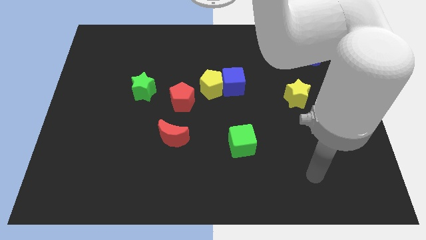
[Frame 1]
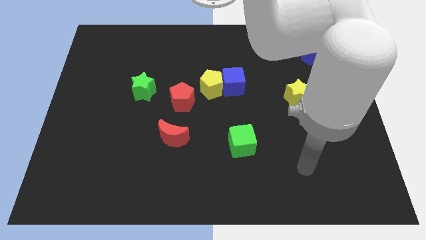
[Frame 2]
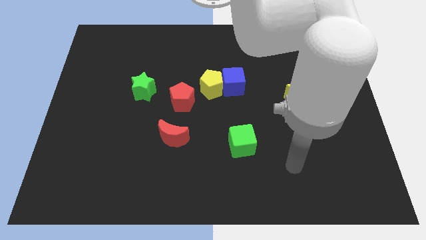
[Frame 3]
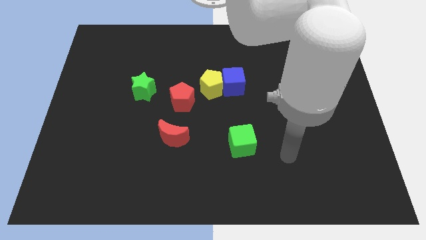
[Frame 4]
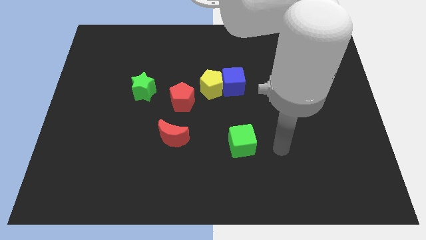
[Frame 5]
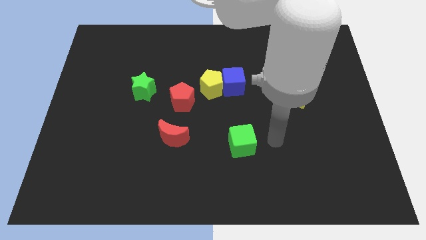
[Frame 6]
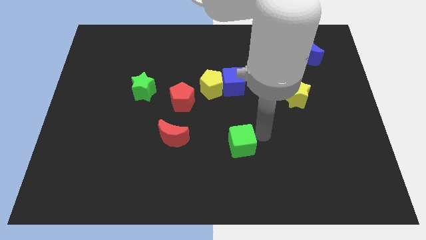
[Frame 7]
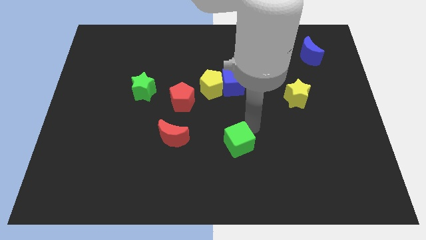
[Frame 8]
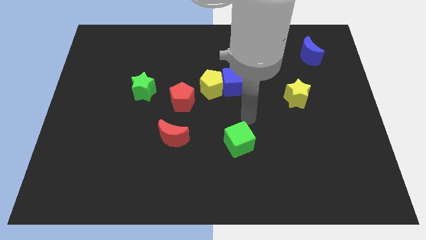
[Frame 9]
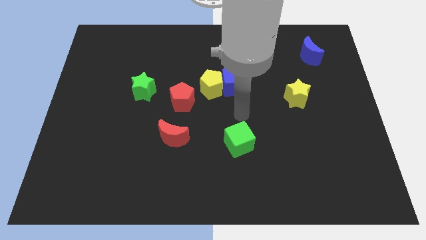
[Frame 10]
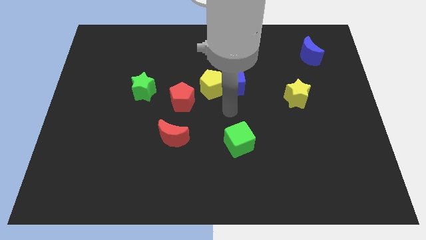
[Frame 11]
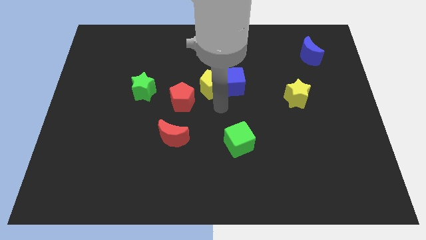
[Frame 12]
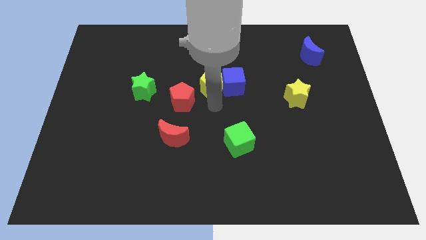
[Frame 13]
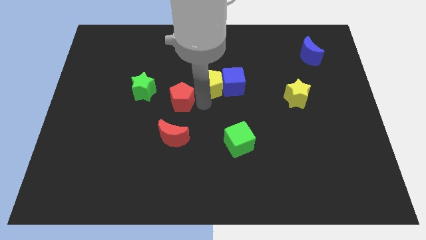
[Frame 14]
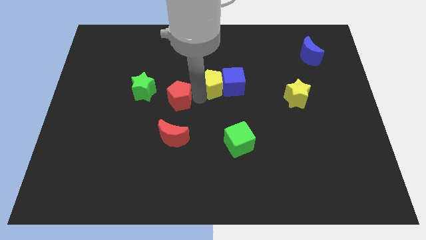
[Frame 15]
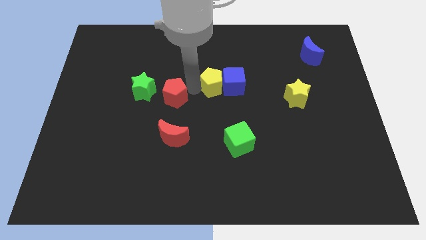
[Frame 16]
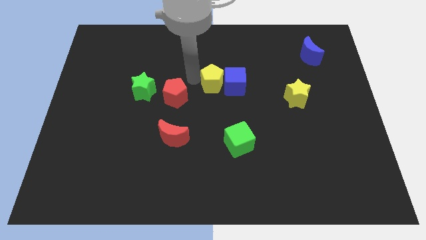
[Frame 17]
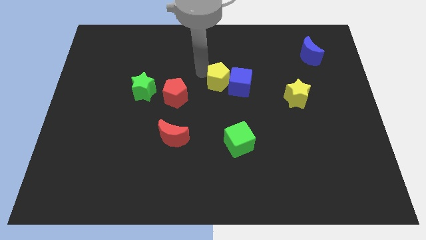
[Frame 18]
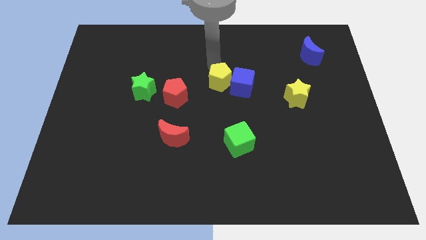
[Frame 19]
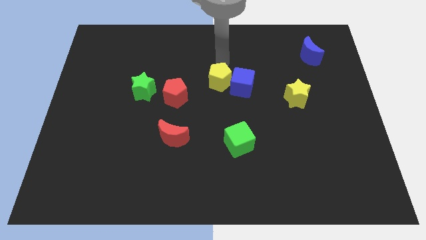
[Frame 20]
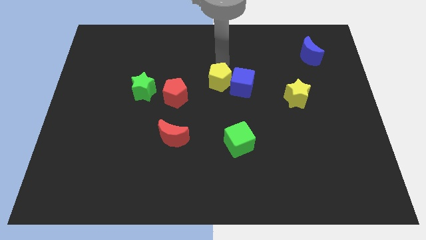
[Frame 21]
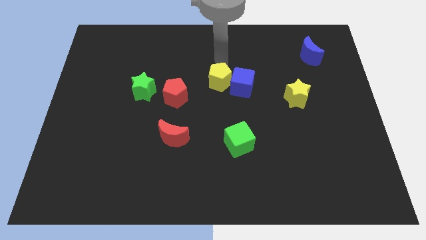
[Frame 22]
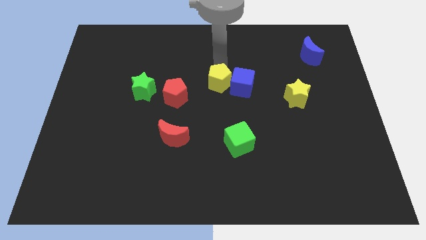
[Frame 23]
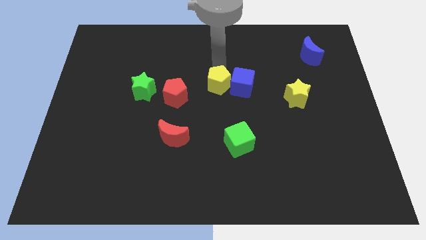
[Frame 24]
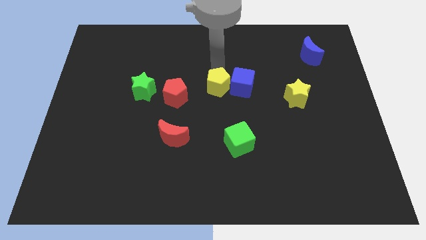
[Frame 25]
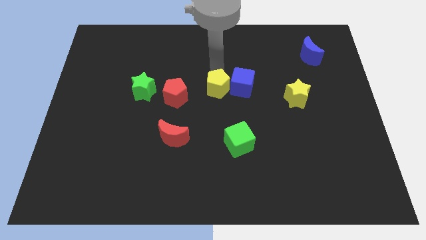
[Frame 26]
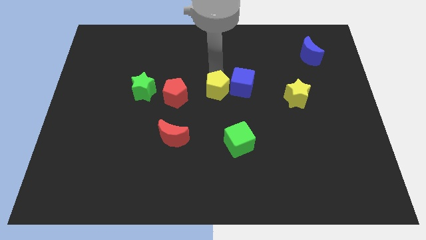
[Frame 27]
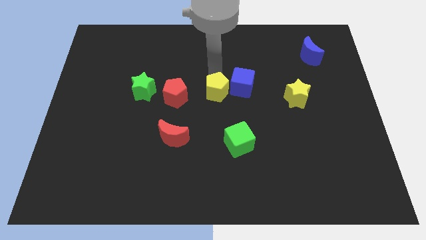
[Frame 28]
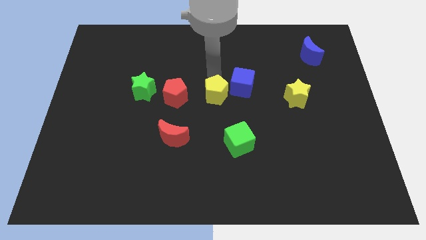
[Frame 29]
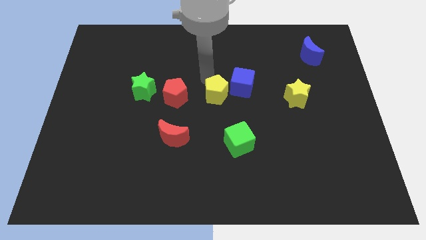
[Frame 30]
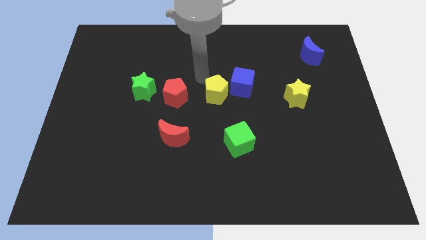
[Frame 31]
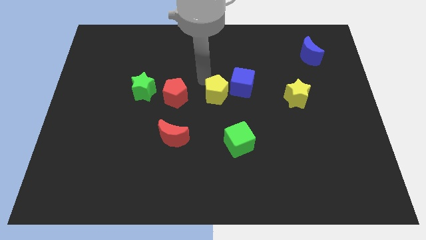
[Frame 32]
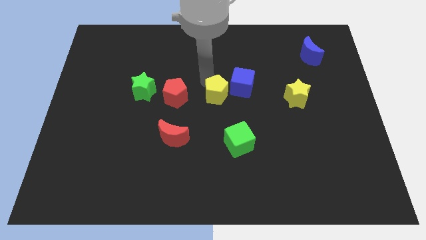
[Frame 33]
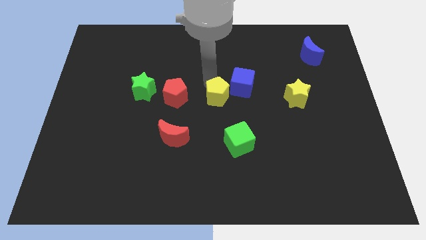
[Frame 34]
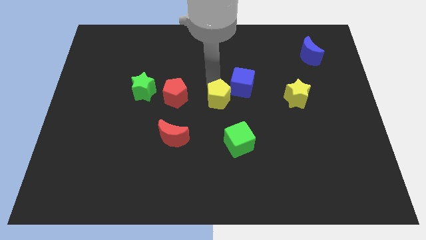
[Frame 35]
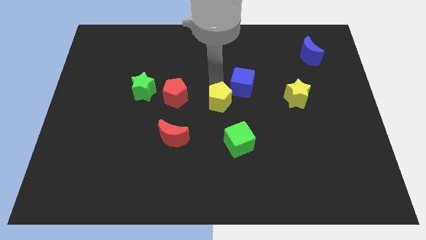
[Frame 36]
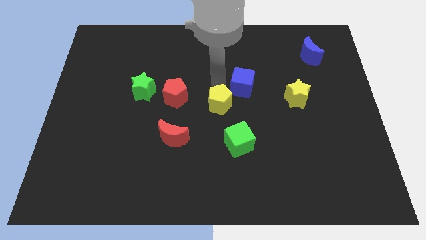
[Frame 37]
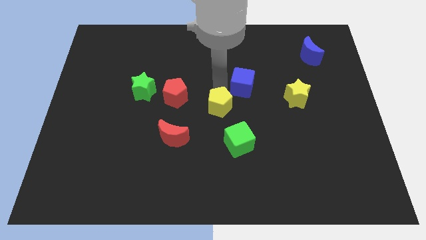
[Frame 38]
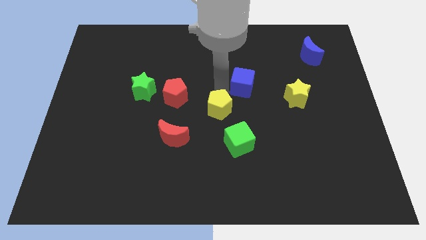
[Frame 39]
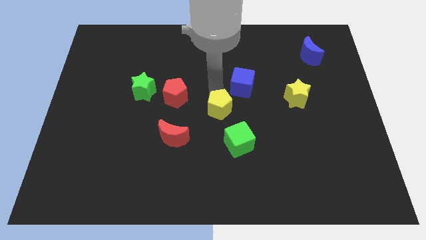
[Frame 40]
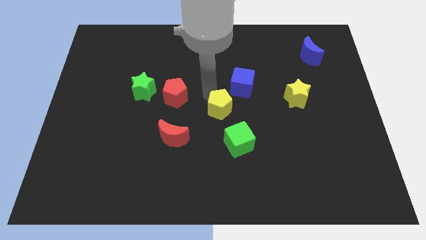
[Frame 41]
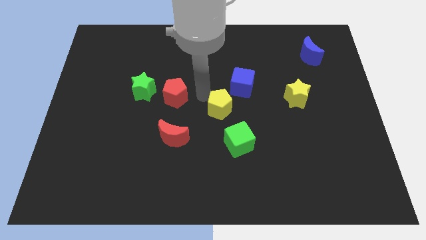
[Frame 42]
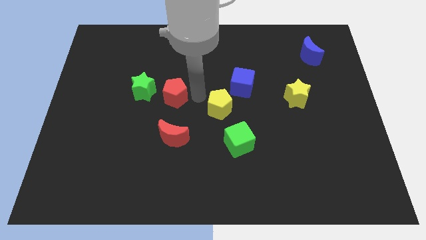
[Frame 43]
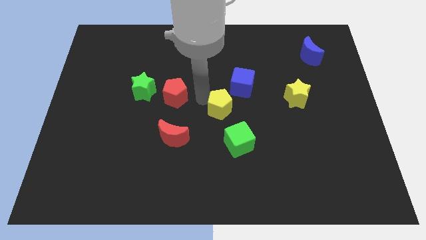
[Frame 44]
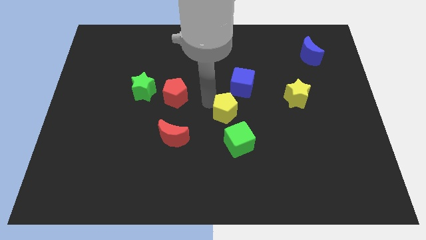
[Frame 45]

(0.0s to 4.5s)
slide the yellow pentagon diagonally downwards and to the right a little bit

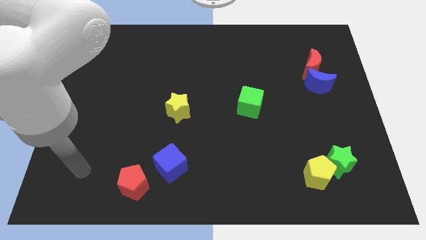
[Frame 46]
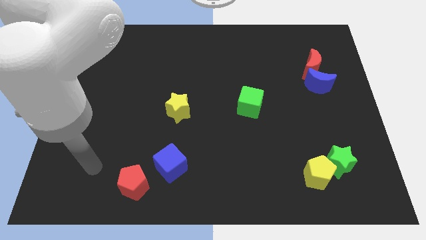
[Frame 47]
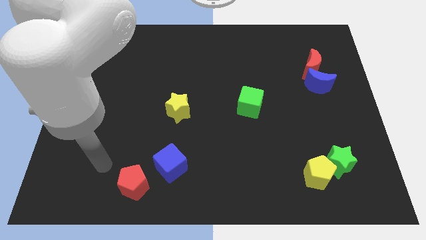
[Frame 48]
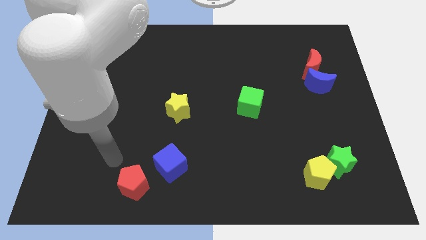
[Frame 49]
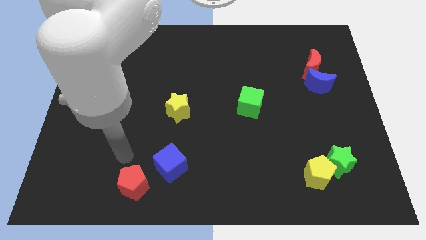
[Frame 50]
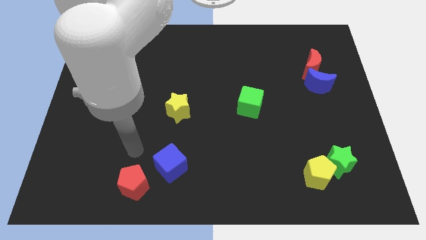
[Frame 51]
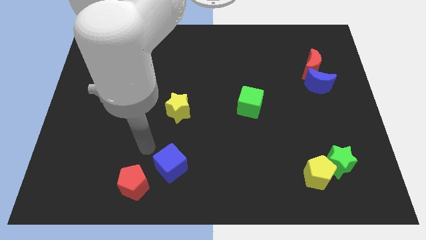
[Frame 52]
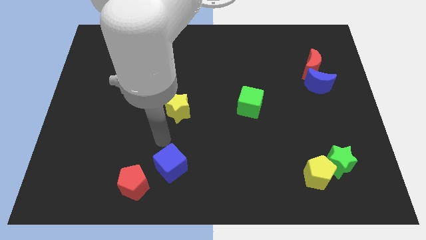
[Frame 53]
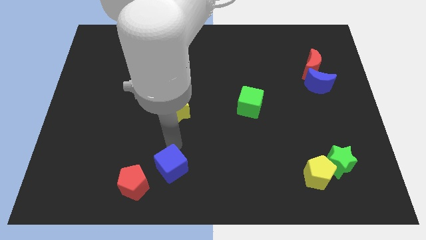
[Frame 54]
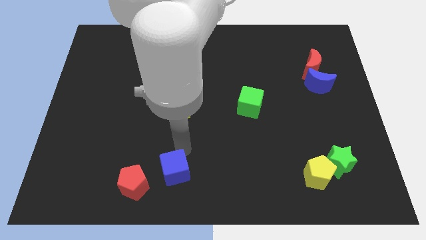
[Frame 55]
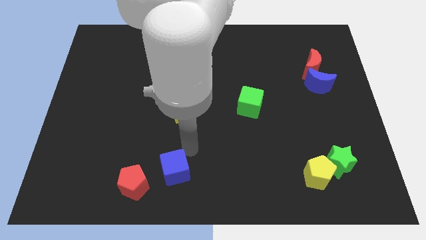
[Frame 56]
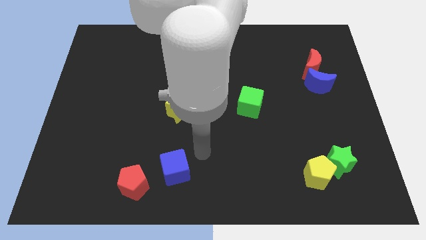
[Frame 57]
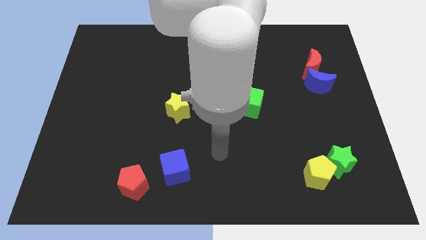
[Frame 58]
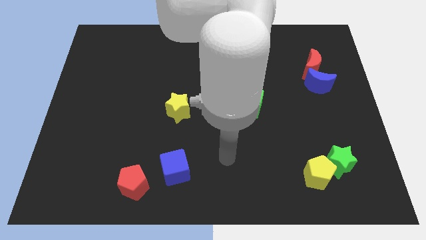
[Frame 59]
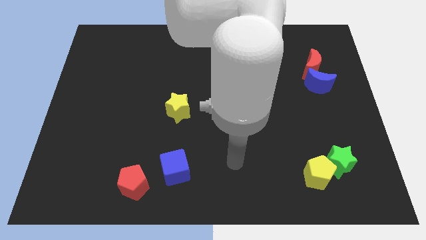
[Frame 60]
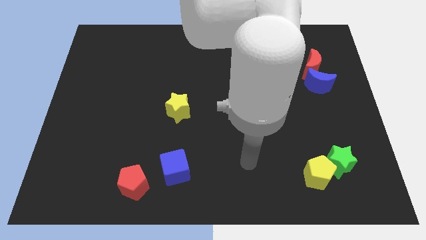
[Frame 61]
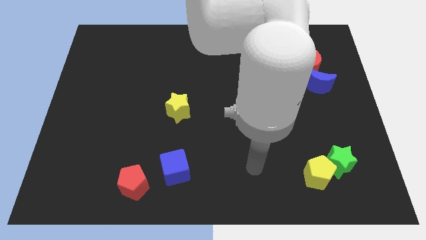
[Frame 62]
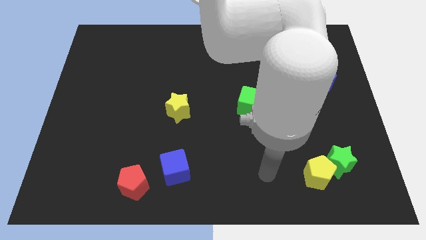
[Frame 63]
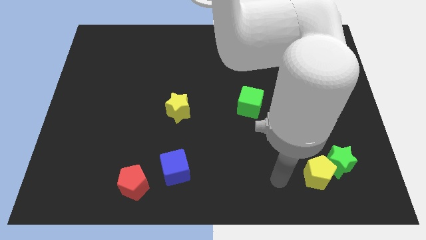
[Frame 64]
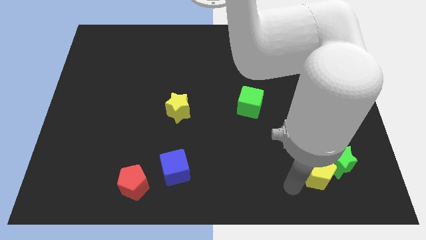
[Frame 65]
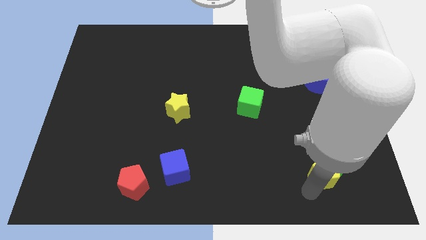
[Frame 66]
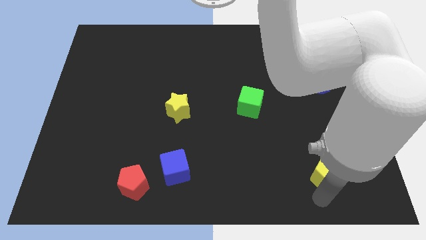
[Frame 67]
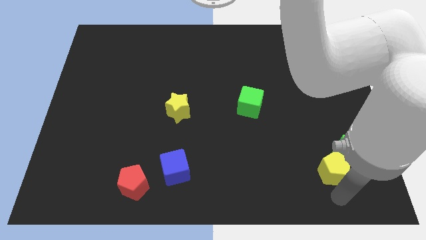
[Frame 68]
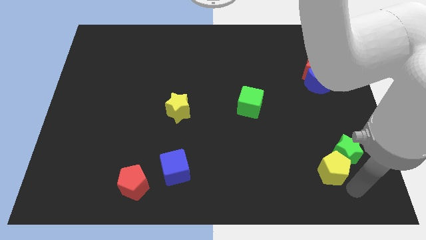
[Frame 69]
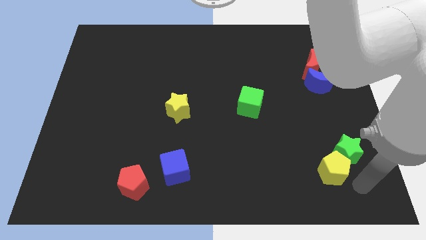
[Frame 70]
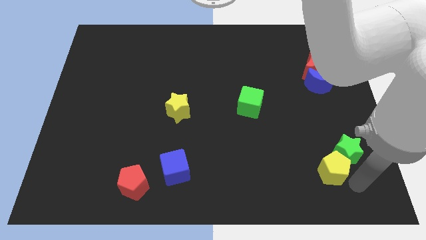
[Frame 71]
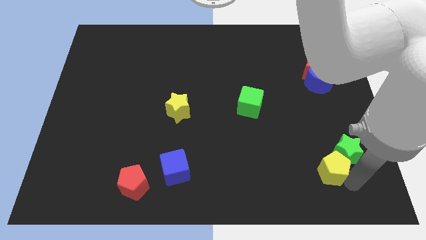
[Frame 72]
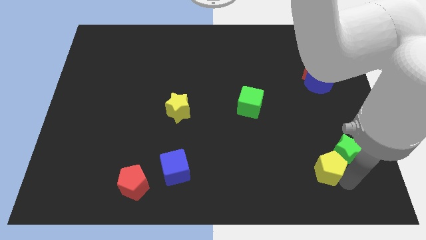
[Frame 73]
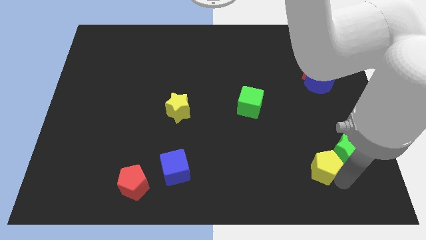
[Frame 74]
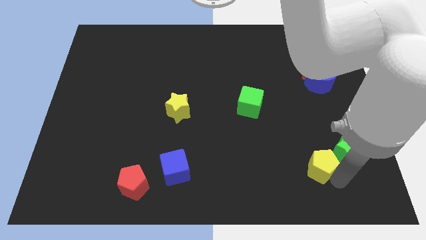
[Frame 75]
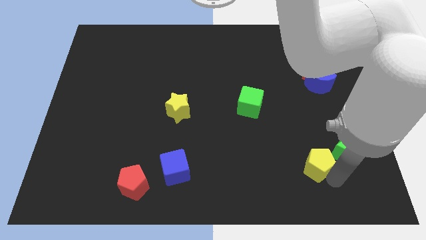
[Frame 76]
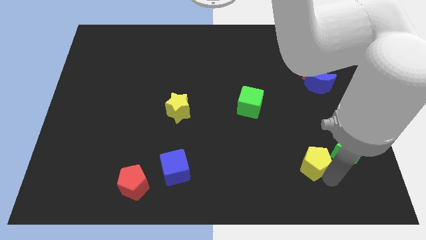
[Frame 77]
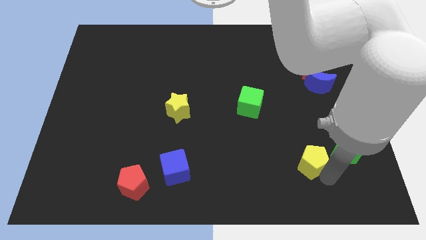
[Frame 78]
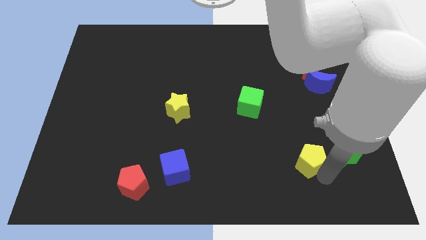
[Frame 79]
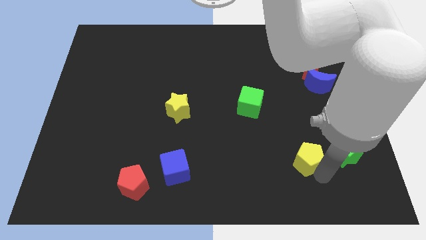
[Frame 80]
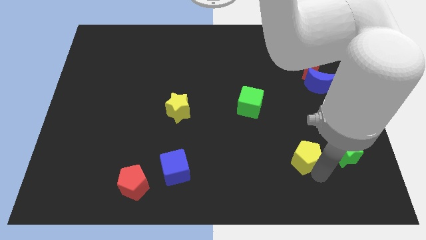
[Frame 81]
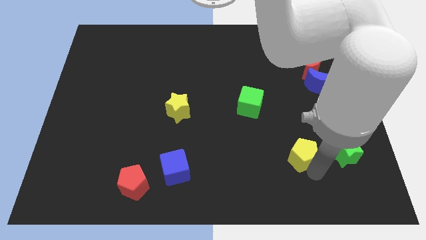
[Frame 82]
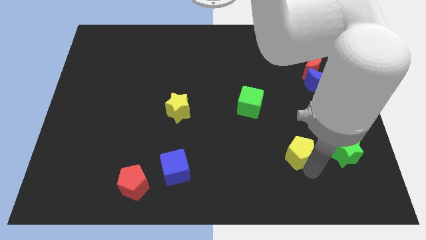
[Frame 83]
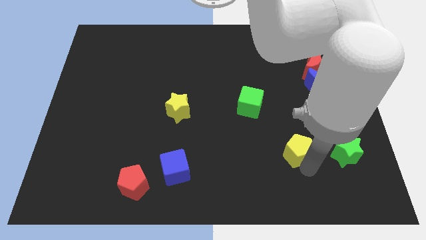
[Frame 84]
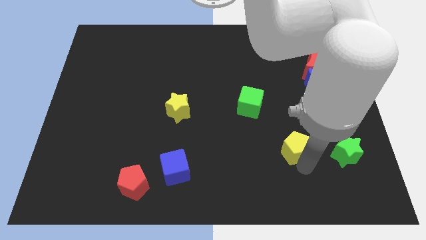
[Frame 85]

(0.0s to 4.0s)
slightly push the yellow pentagon diagonally upwards and left
